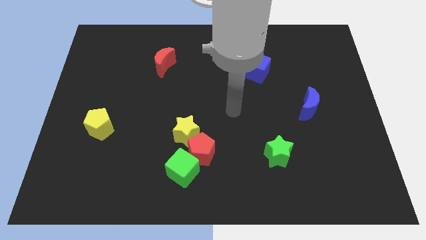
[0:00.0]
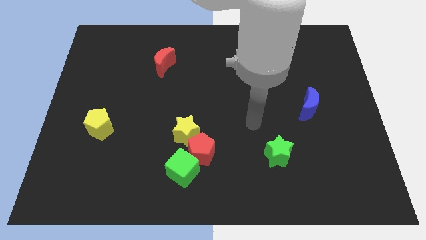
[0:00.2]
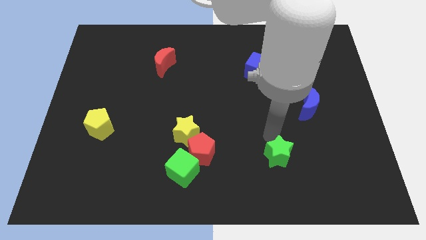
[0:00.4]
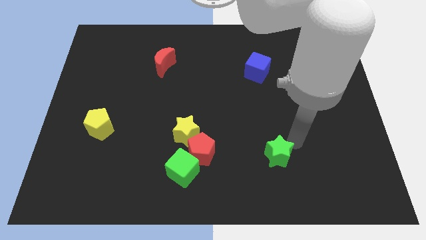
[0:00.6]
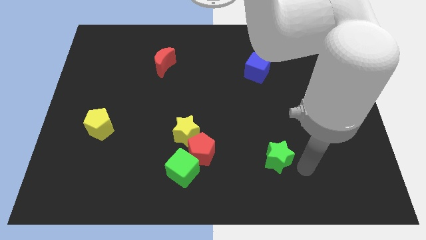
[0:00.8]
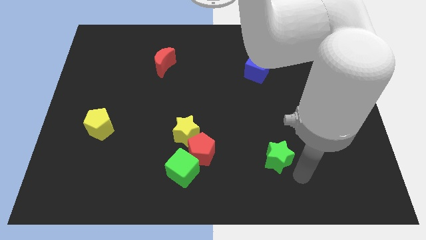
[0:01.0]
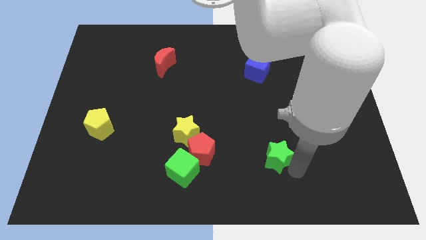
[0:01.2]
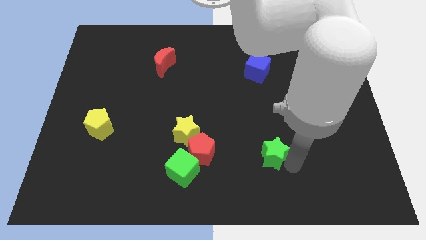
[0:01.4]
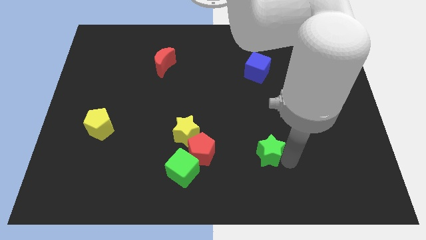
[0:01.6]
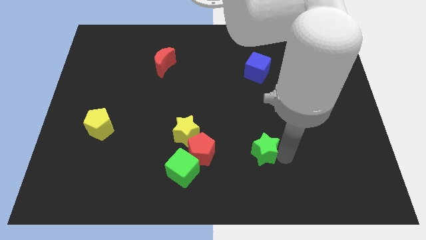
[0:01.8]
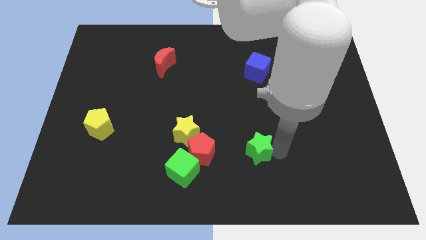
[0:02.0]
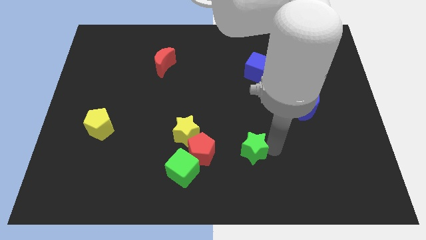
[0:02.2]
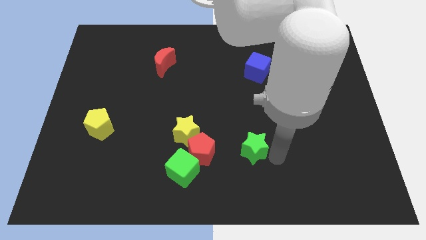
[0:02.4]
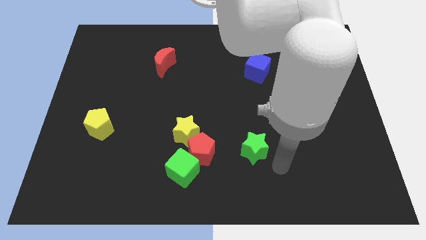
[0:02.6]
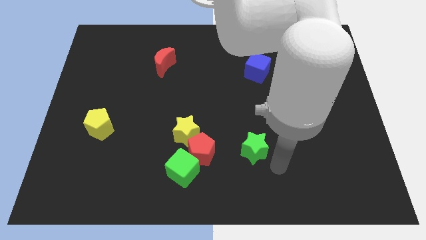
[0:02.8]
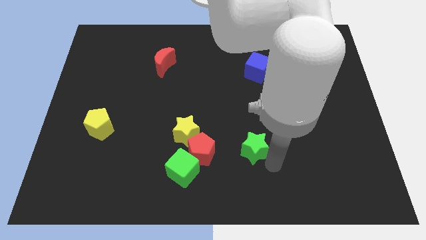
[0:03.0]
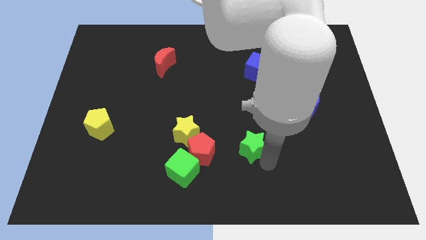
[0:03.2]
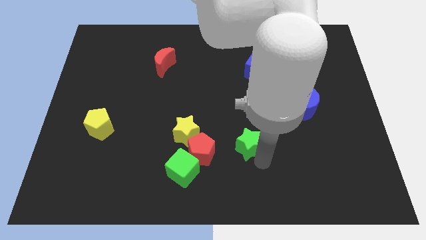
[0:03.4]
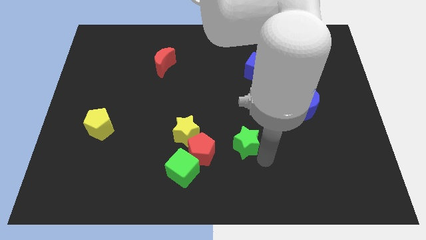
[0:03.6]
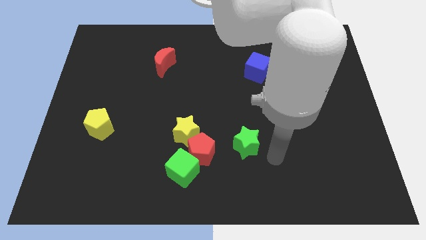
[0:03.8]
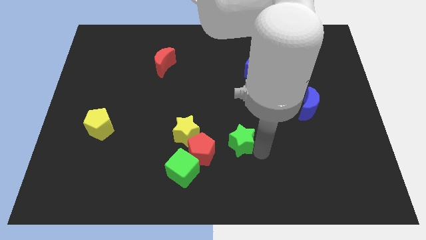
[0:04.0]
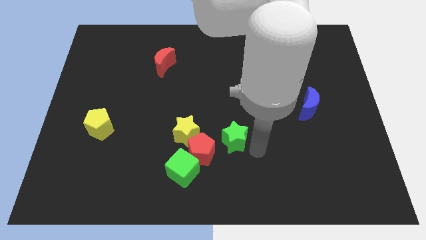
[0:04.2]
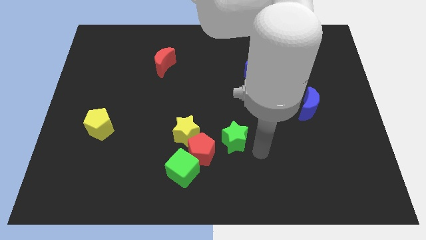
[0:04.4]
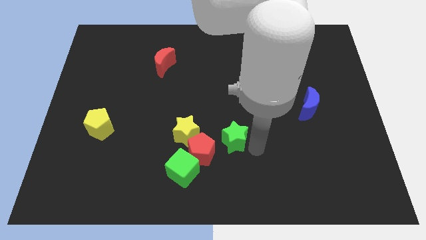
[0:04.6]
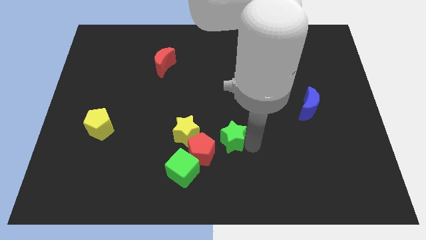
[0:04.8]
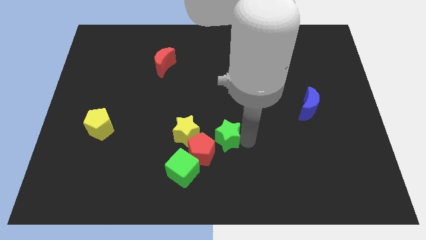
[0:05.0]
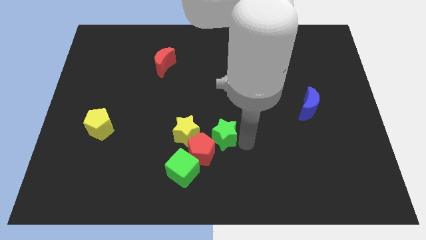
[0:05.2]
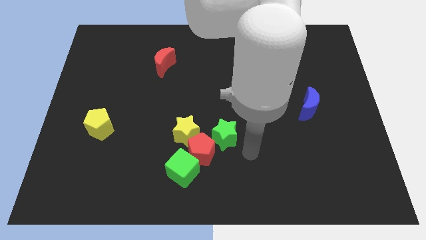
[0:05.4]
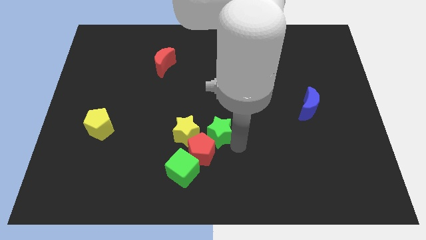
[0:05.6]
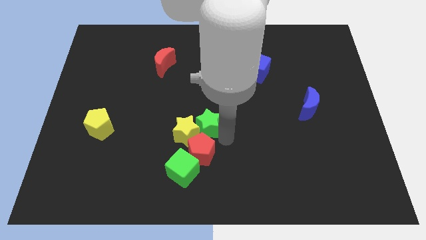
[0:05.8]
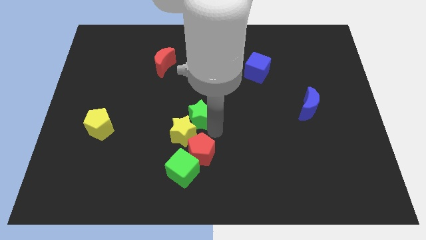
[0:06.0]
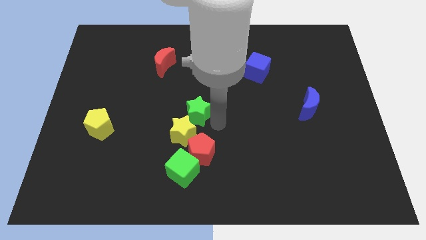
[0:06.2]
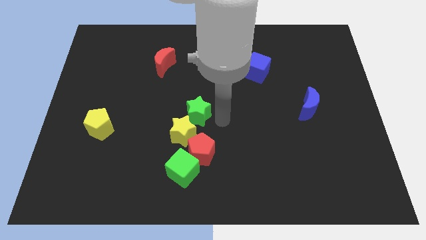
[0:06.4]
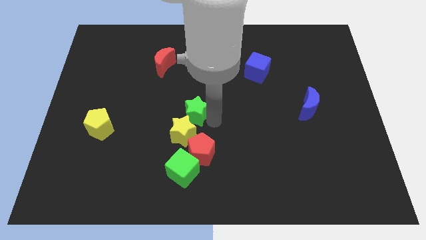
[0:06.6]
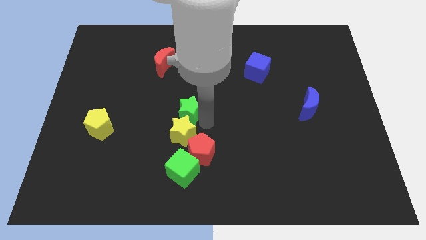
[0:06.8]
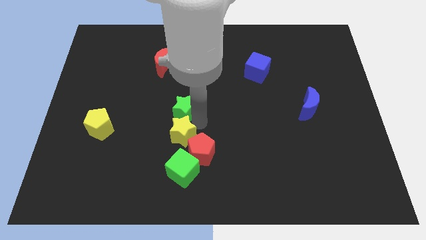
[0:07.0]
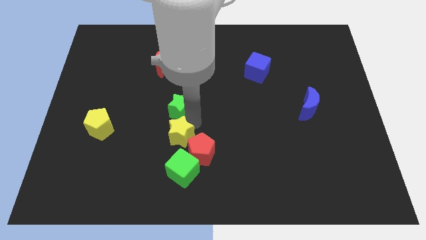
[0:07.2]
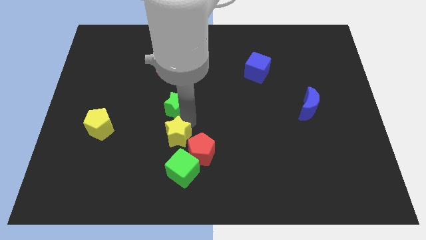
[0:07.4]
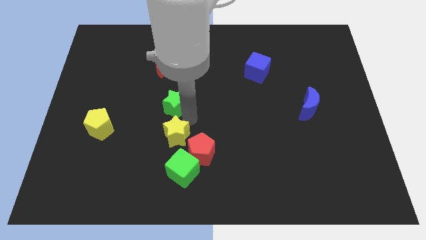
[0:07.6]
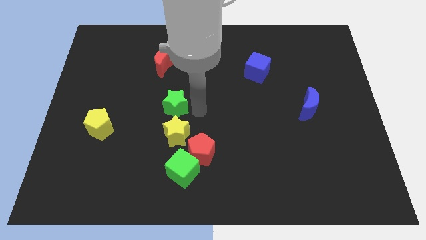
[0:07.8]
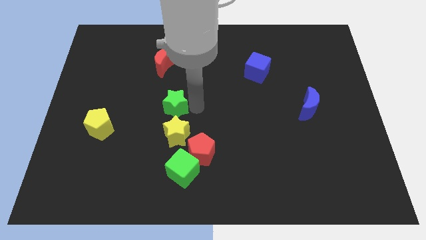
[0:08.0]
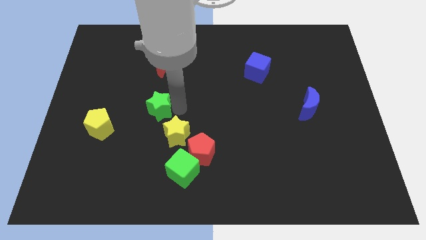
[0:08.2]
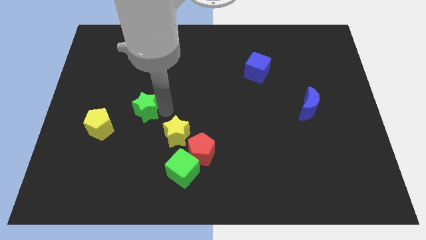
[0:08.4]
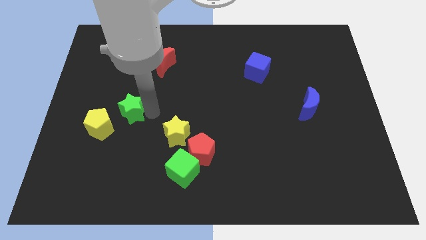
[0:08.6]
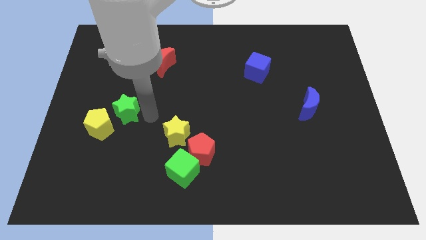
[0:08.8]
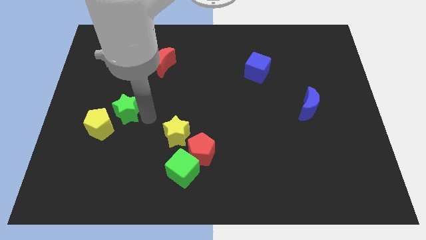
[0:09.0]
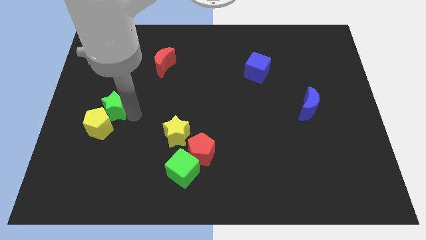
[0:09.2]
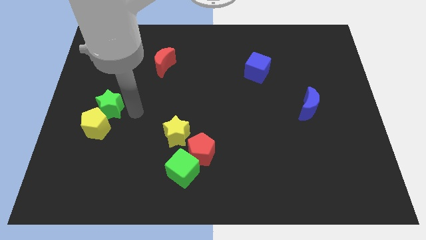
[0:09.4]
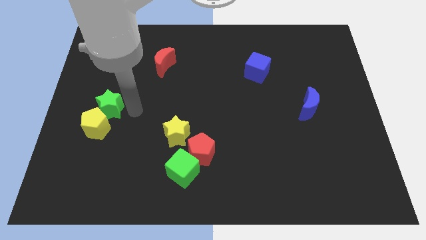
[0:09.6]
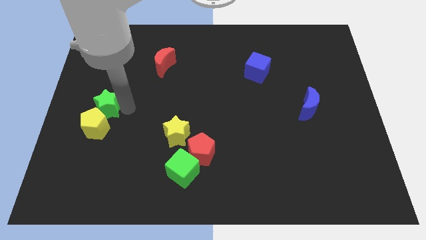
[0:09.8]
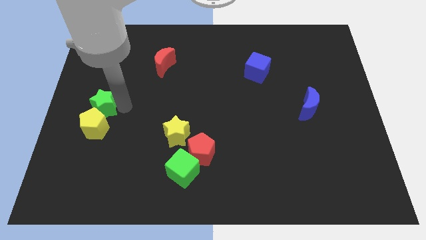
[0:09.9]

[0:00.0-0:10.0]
push the green star to the center left

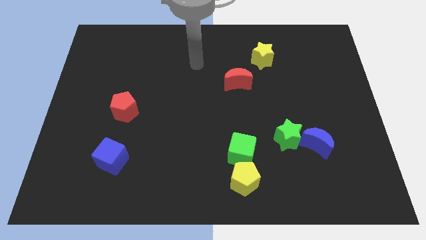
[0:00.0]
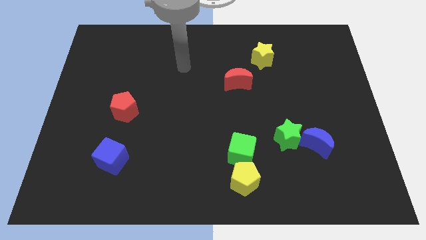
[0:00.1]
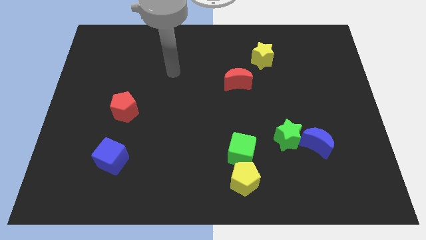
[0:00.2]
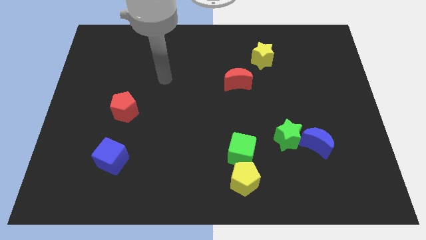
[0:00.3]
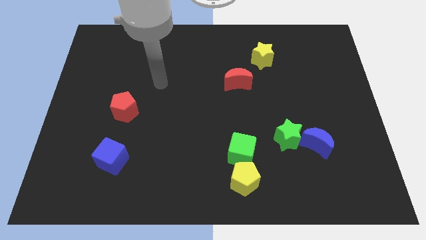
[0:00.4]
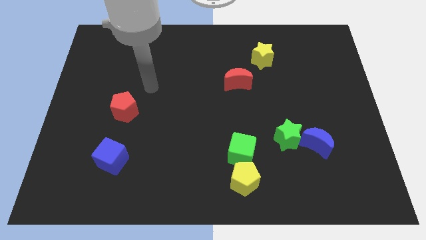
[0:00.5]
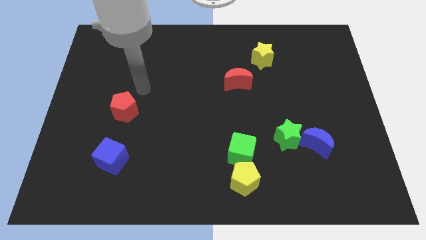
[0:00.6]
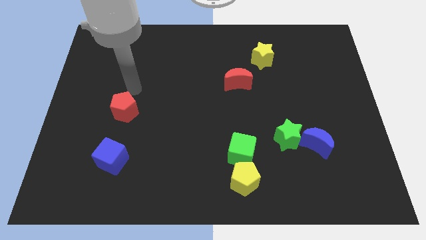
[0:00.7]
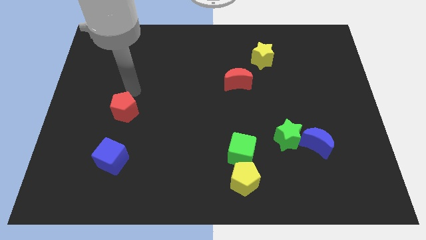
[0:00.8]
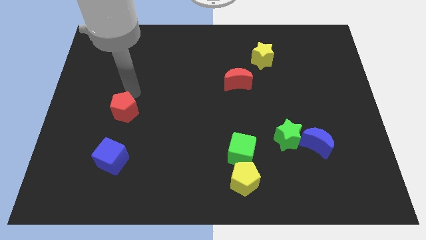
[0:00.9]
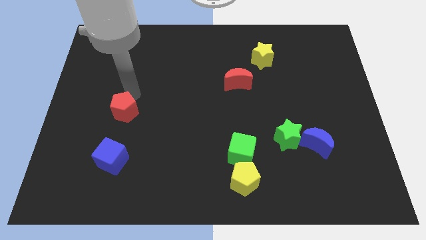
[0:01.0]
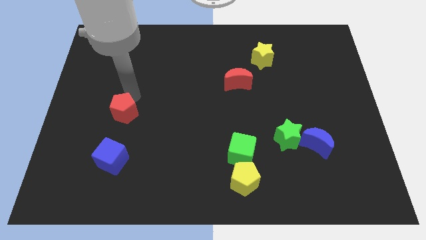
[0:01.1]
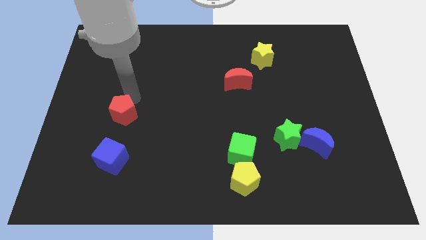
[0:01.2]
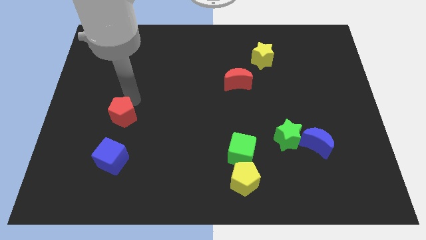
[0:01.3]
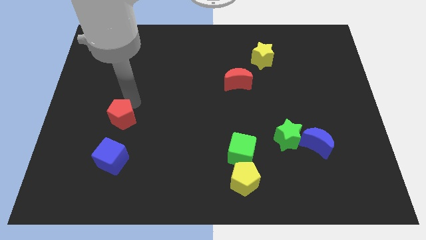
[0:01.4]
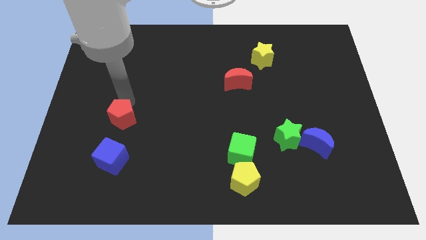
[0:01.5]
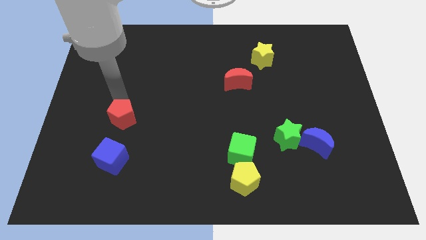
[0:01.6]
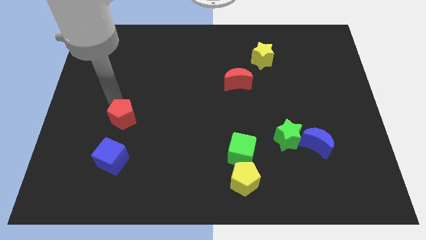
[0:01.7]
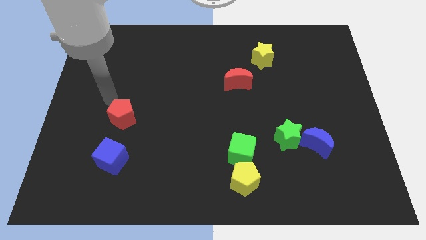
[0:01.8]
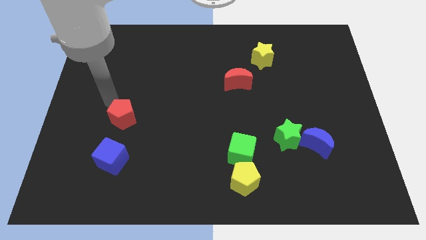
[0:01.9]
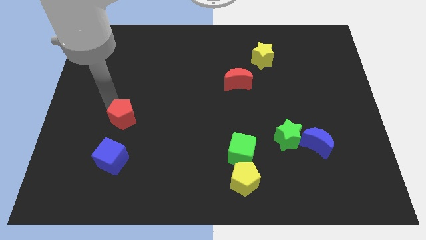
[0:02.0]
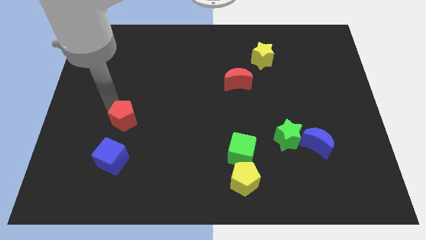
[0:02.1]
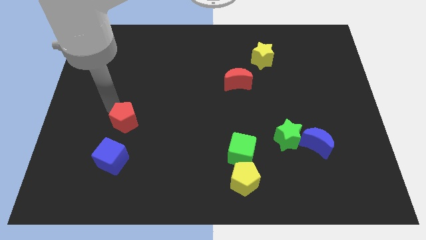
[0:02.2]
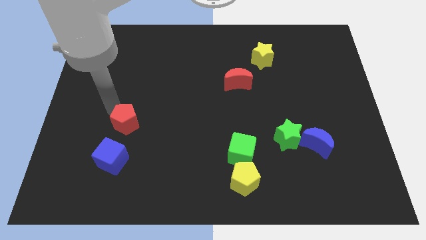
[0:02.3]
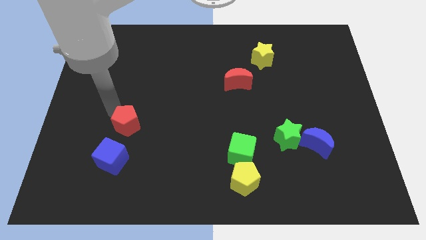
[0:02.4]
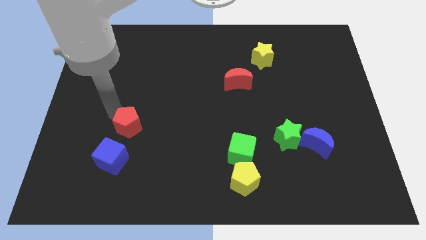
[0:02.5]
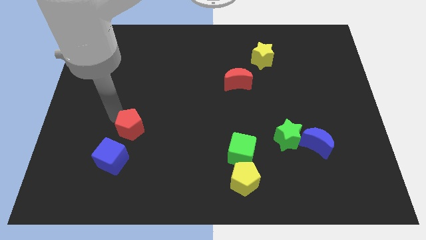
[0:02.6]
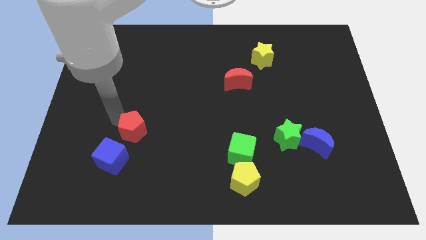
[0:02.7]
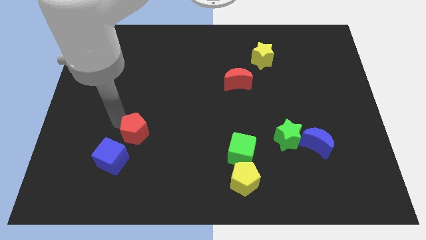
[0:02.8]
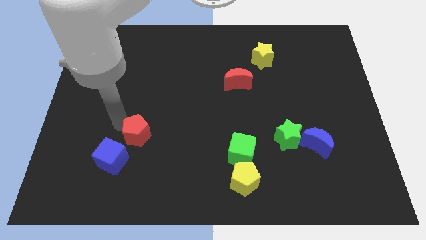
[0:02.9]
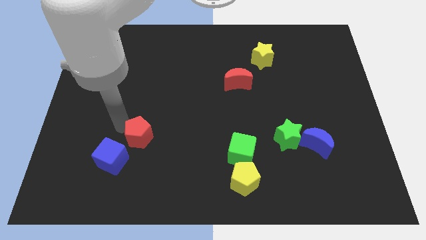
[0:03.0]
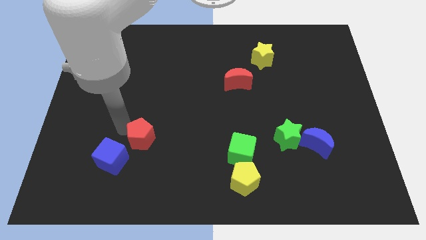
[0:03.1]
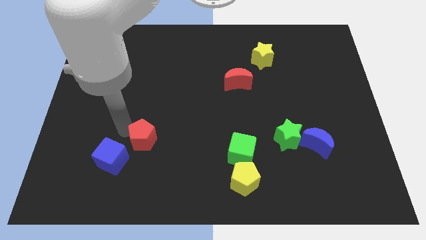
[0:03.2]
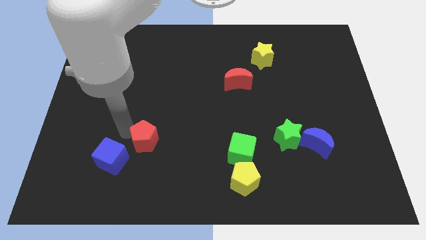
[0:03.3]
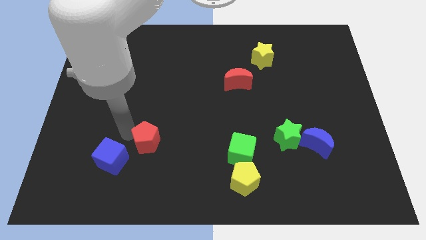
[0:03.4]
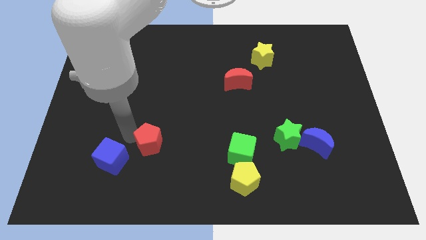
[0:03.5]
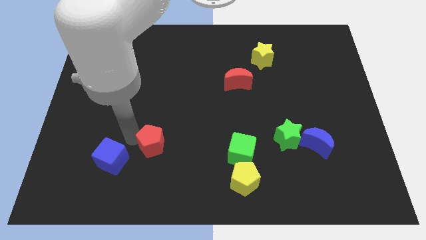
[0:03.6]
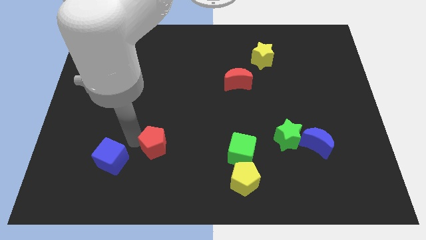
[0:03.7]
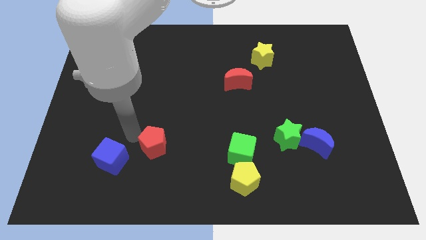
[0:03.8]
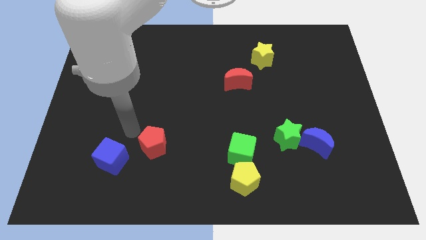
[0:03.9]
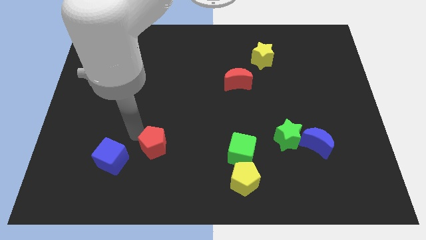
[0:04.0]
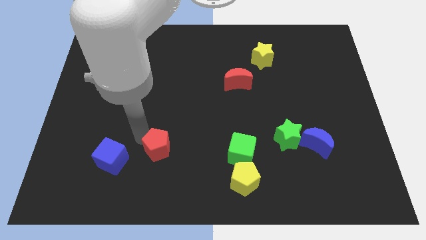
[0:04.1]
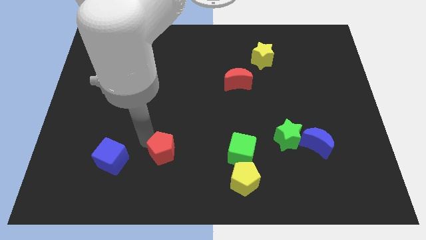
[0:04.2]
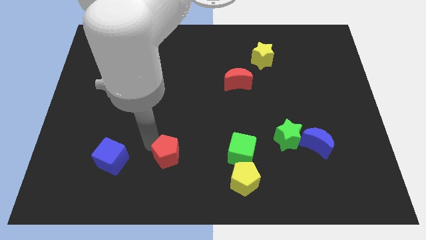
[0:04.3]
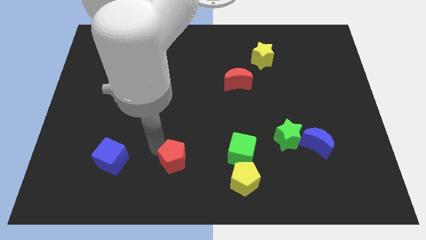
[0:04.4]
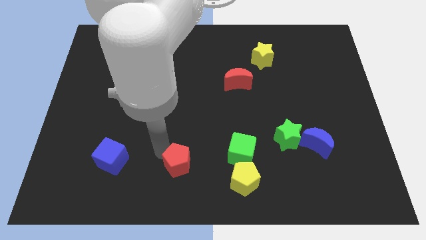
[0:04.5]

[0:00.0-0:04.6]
move the red pentagon to the bottom
